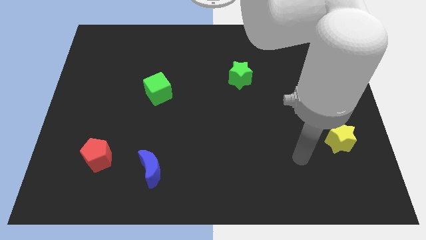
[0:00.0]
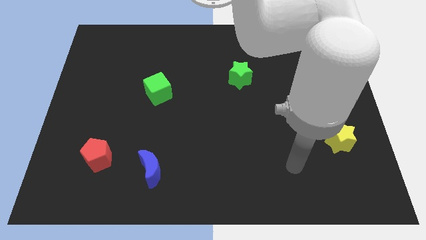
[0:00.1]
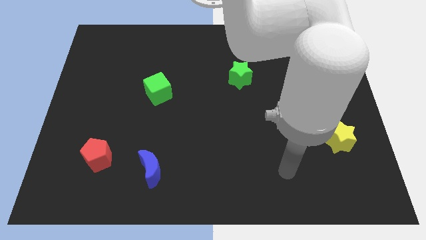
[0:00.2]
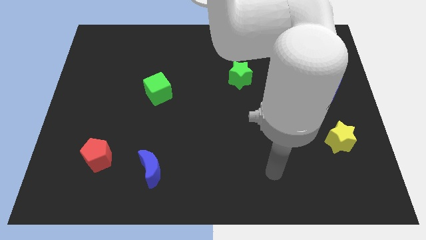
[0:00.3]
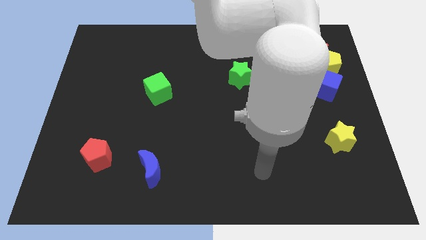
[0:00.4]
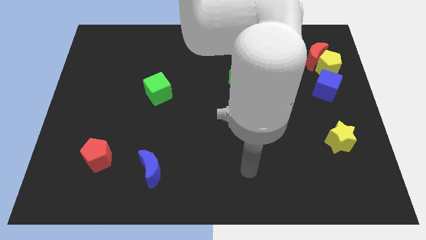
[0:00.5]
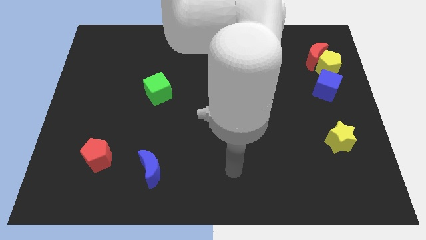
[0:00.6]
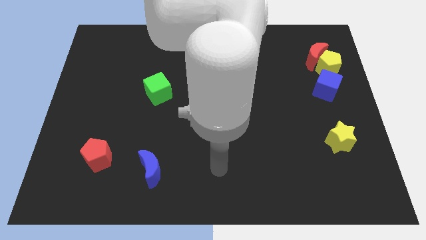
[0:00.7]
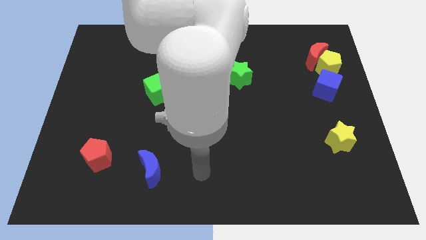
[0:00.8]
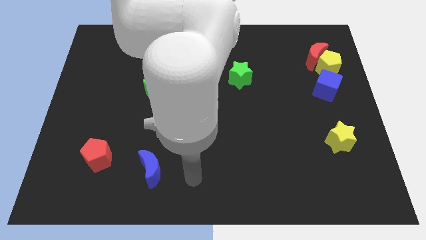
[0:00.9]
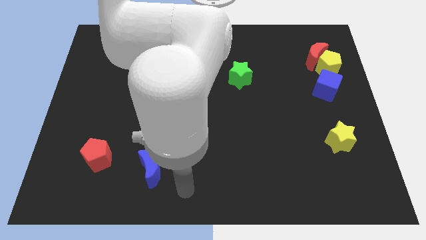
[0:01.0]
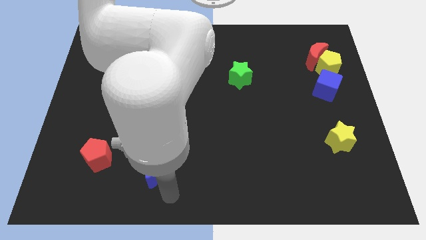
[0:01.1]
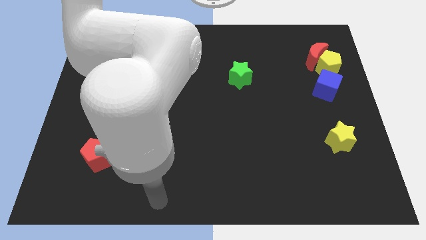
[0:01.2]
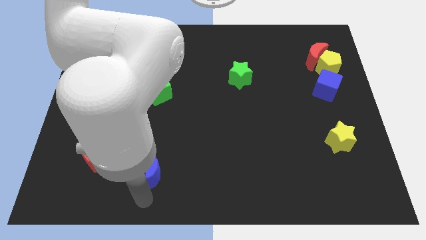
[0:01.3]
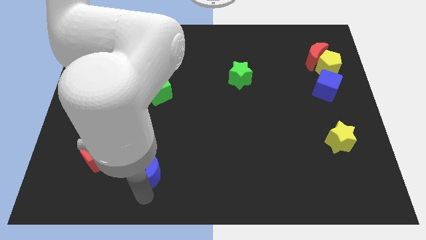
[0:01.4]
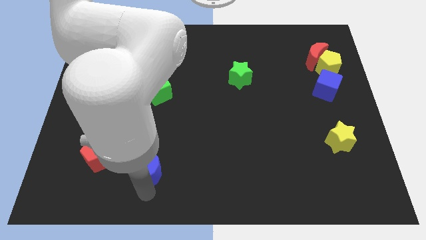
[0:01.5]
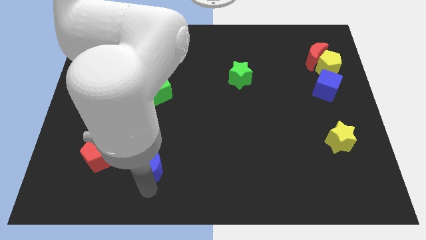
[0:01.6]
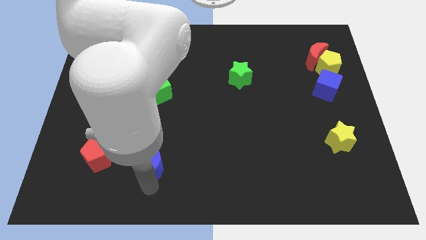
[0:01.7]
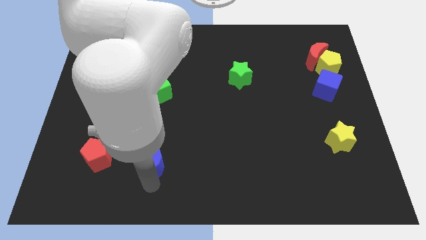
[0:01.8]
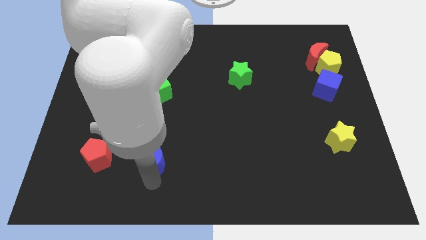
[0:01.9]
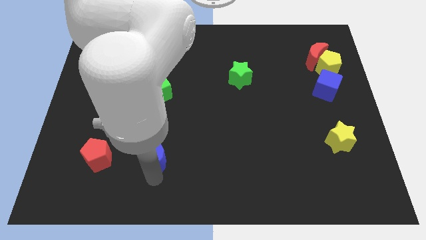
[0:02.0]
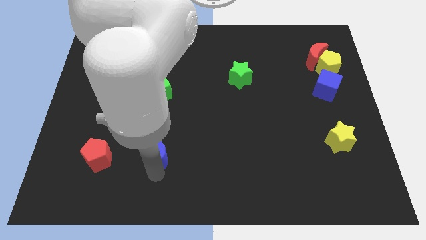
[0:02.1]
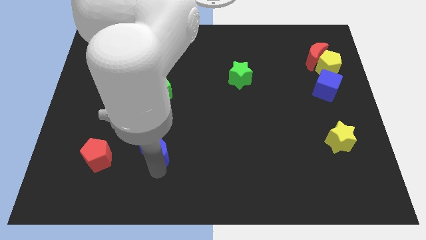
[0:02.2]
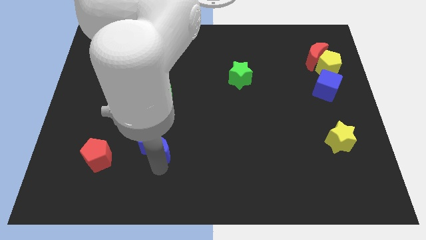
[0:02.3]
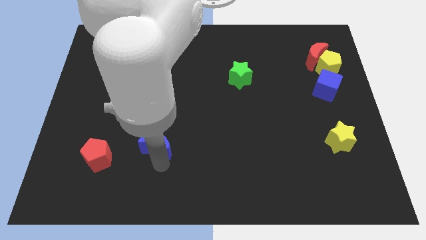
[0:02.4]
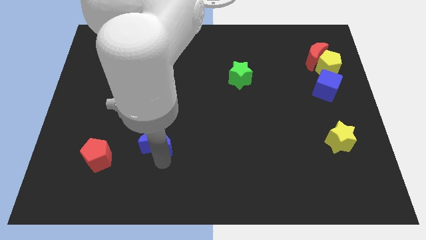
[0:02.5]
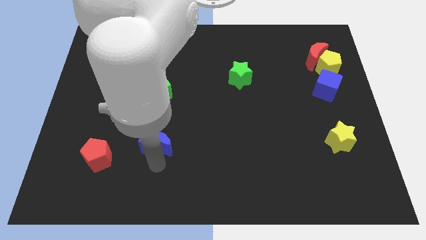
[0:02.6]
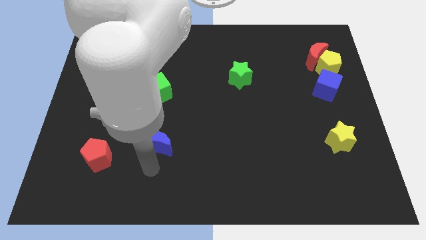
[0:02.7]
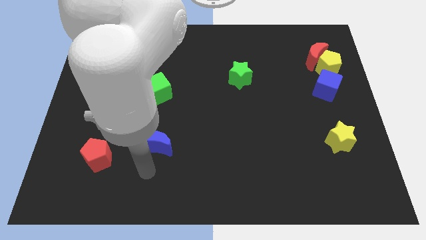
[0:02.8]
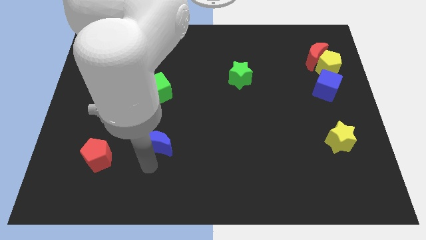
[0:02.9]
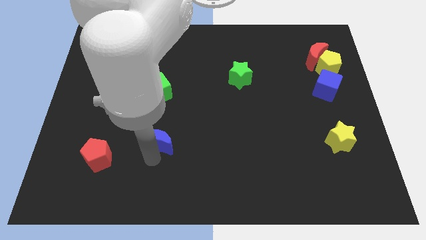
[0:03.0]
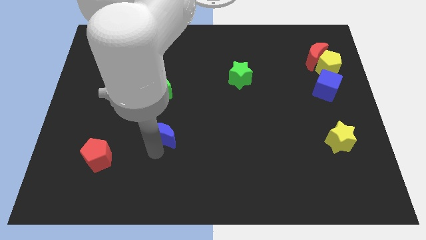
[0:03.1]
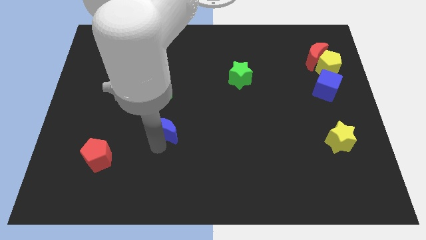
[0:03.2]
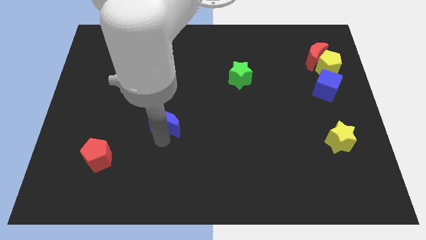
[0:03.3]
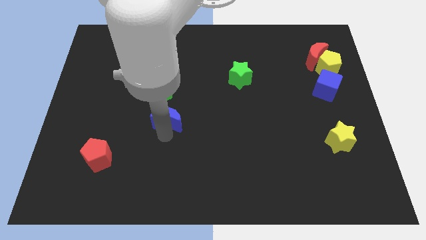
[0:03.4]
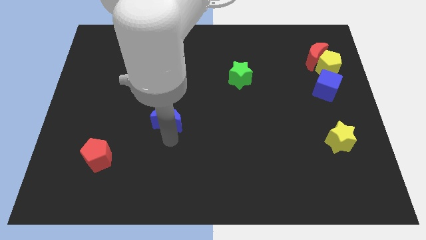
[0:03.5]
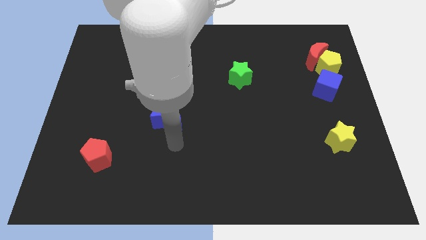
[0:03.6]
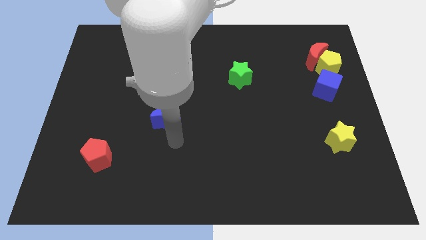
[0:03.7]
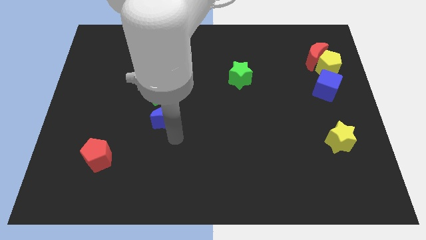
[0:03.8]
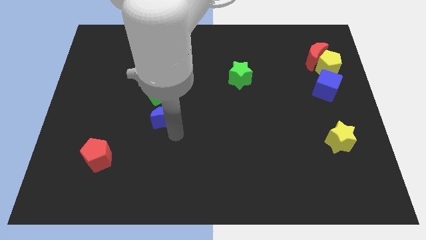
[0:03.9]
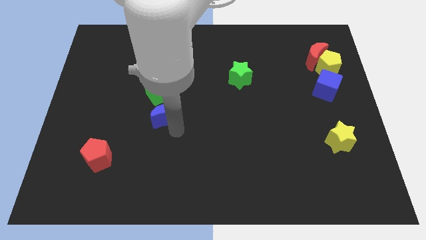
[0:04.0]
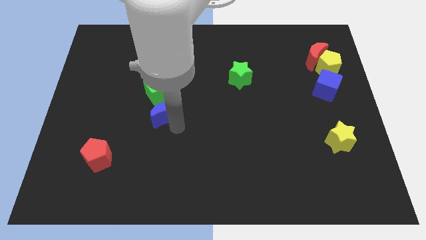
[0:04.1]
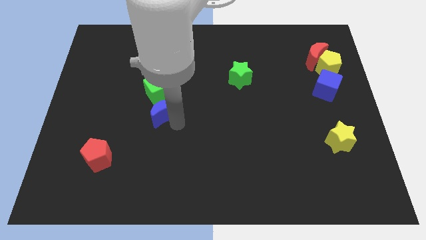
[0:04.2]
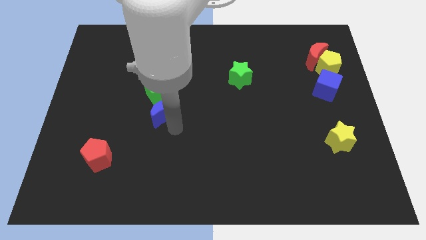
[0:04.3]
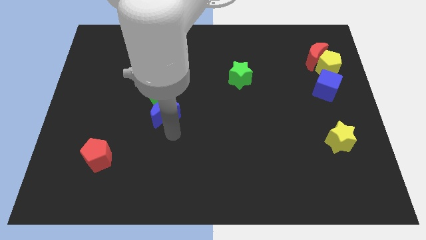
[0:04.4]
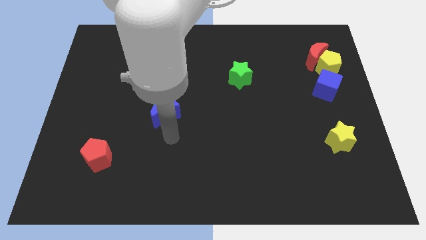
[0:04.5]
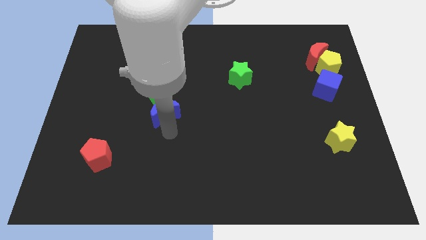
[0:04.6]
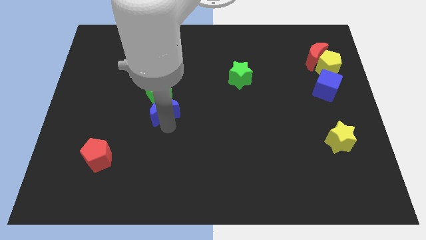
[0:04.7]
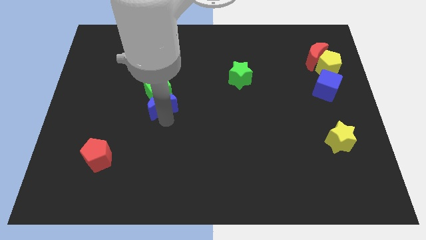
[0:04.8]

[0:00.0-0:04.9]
put the blue moon next to the green cube

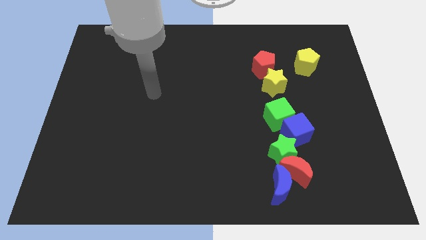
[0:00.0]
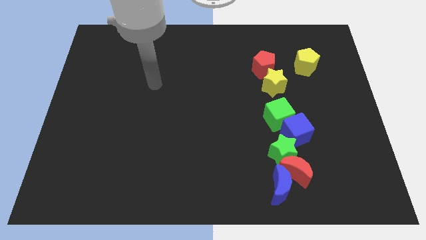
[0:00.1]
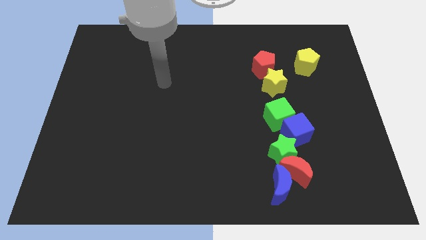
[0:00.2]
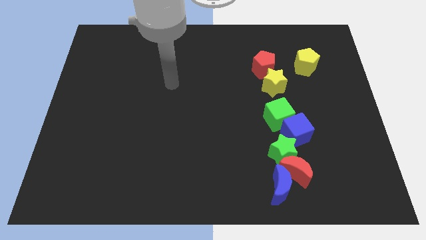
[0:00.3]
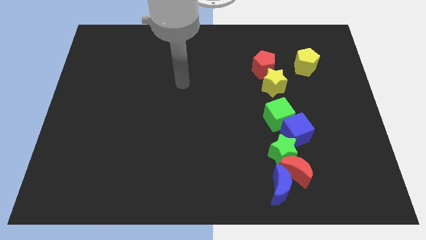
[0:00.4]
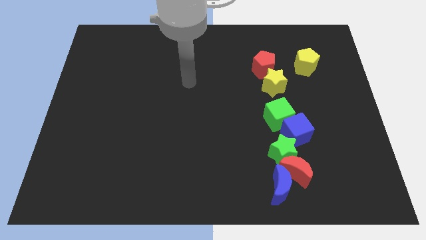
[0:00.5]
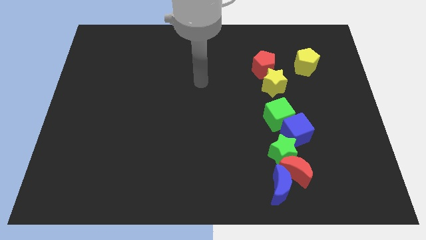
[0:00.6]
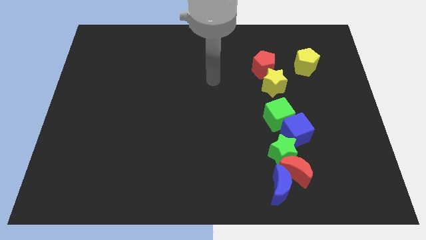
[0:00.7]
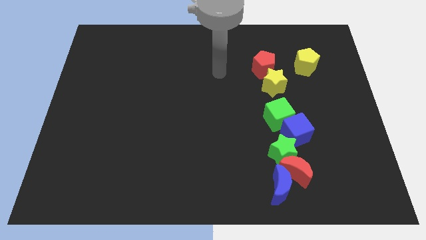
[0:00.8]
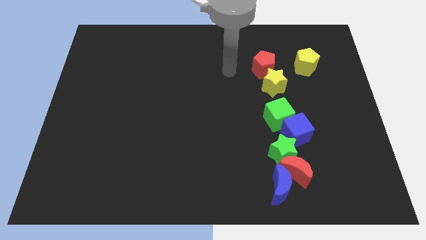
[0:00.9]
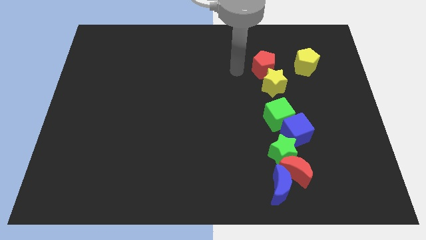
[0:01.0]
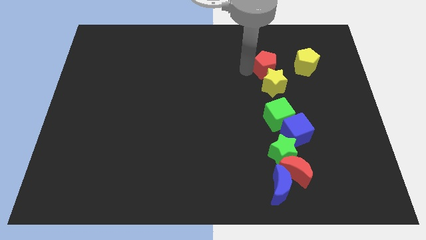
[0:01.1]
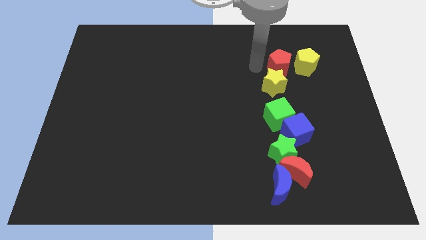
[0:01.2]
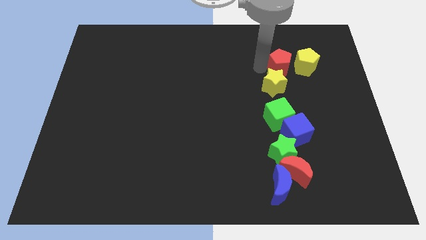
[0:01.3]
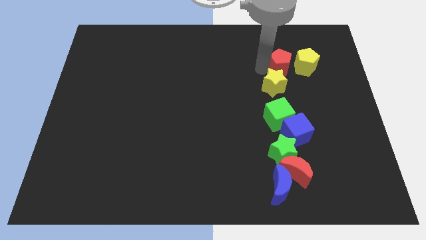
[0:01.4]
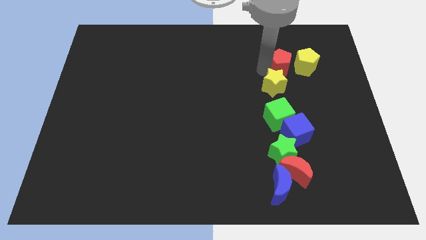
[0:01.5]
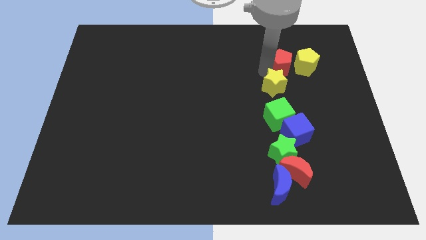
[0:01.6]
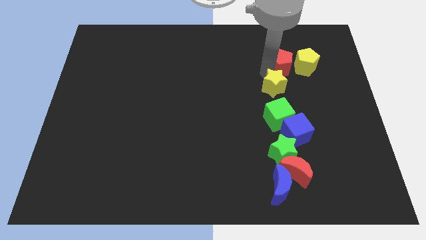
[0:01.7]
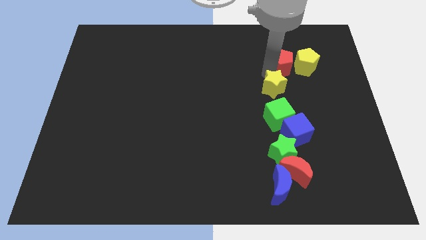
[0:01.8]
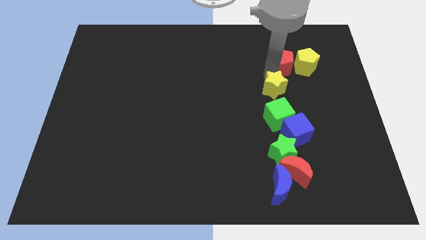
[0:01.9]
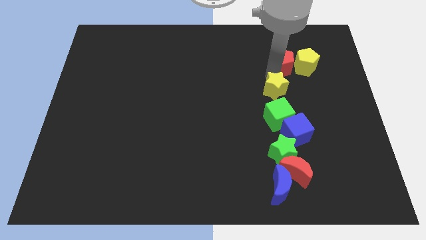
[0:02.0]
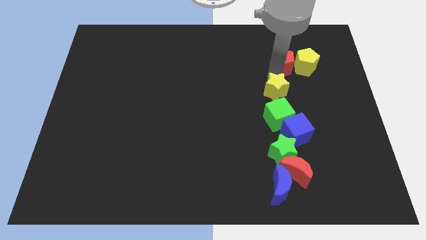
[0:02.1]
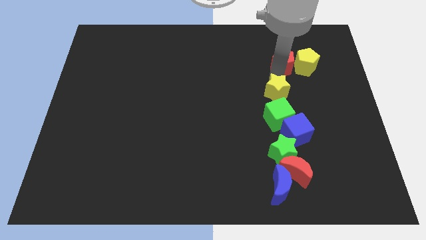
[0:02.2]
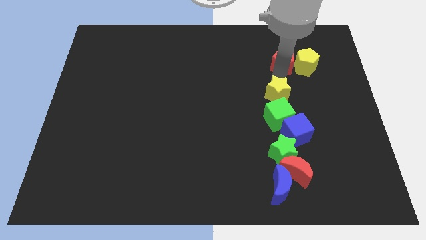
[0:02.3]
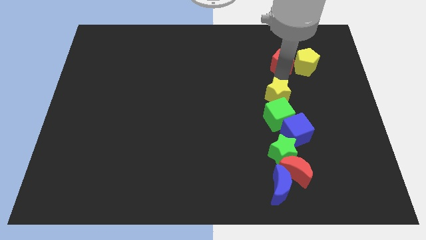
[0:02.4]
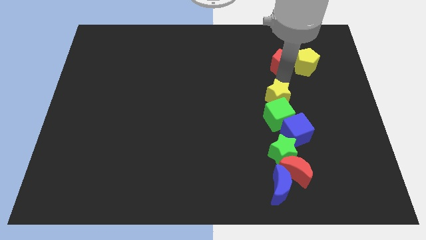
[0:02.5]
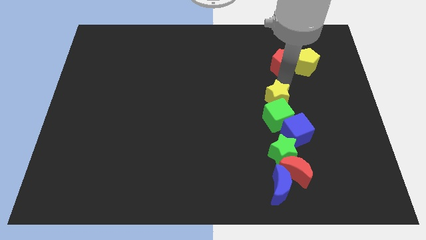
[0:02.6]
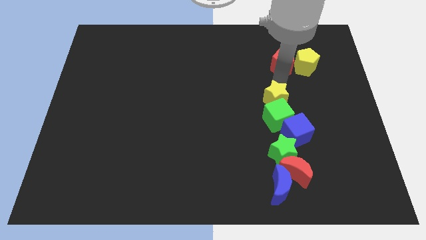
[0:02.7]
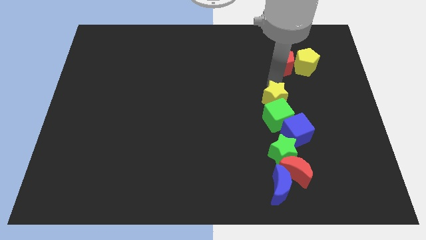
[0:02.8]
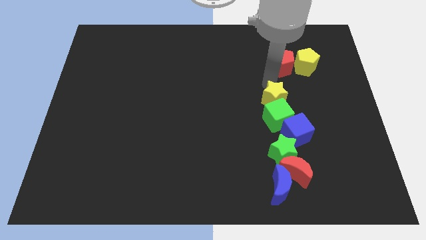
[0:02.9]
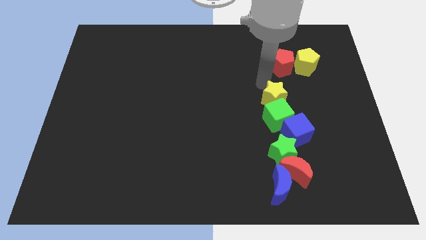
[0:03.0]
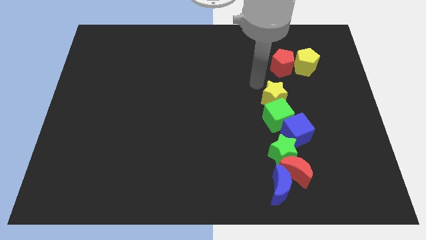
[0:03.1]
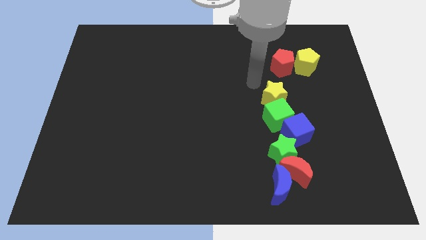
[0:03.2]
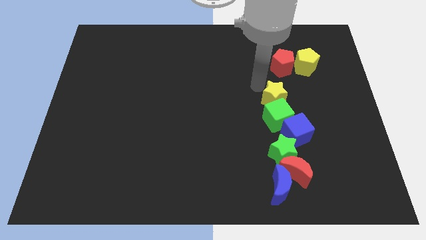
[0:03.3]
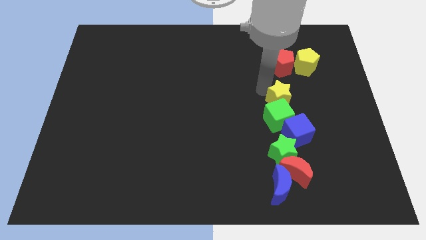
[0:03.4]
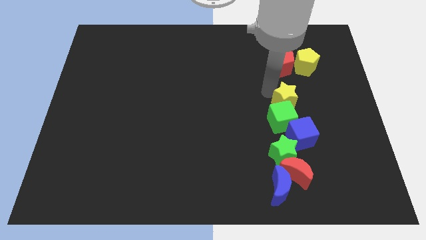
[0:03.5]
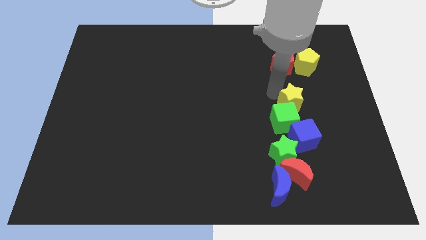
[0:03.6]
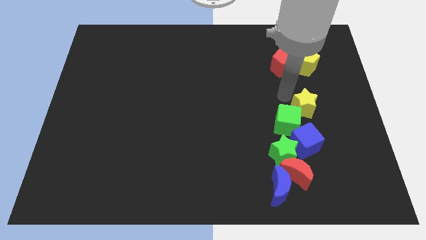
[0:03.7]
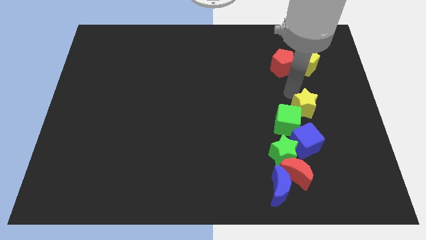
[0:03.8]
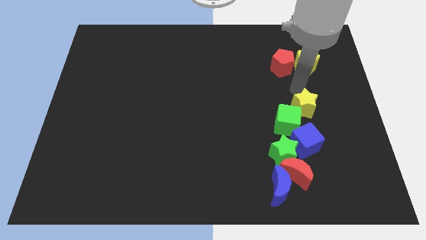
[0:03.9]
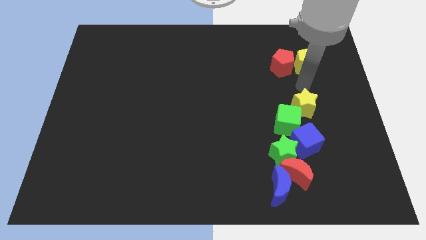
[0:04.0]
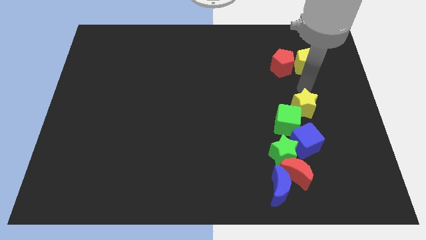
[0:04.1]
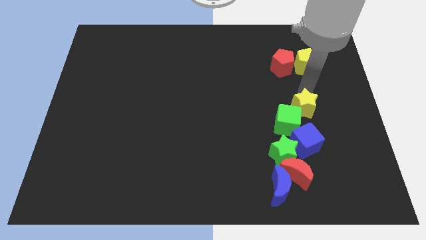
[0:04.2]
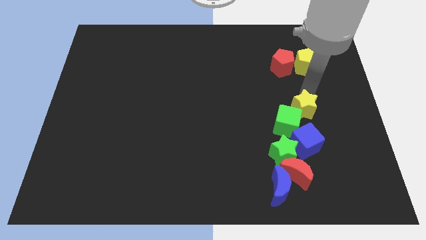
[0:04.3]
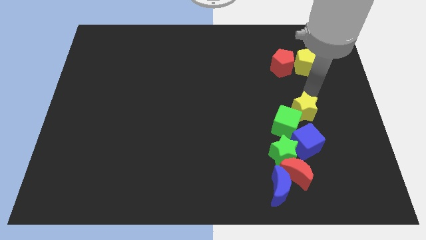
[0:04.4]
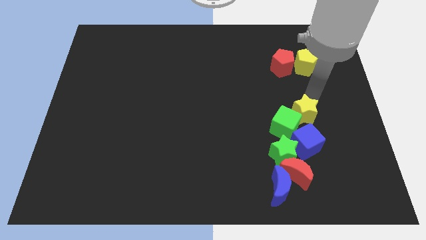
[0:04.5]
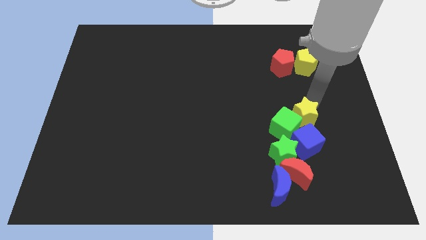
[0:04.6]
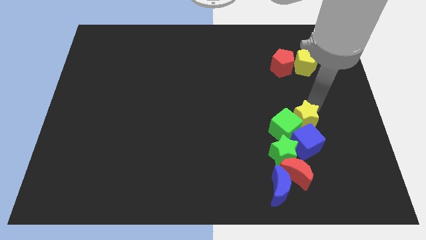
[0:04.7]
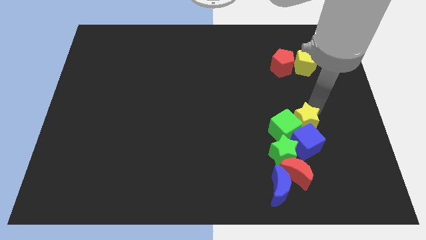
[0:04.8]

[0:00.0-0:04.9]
move the yellow star to the blue cube
